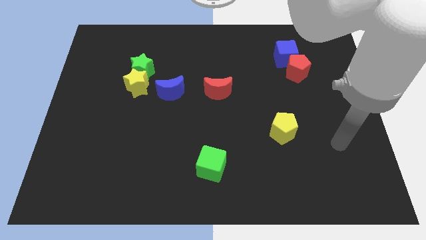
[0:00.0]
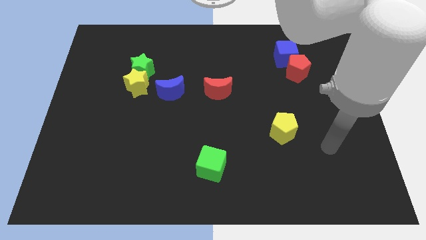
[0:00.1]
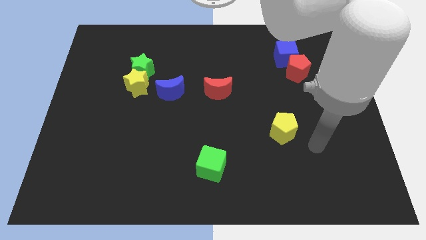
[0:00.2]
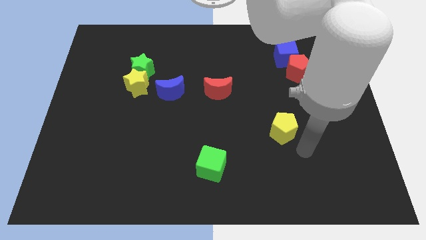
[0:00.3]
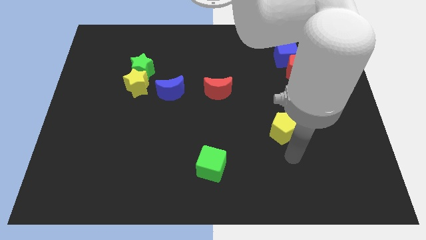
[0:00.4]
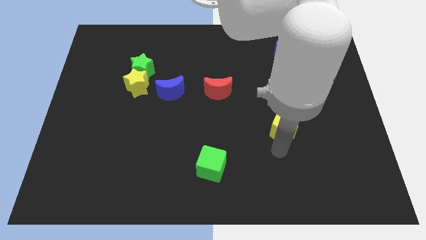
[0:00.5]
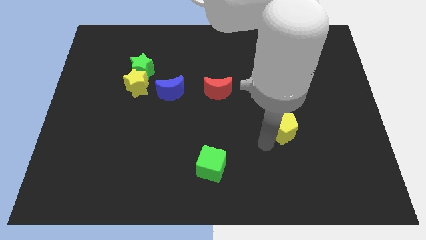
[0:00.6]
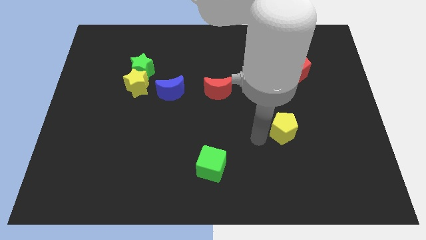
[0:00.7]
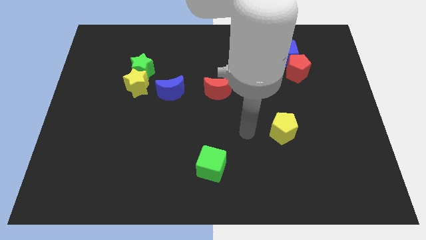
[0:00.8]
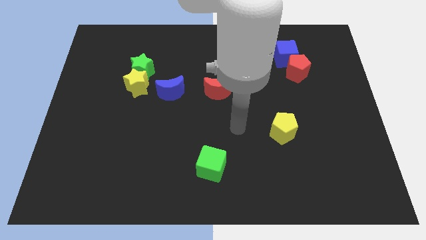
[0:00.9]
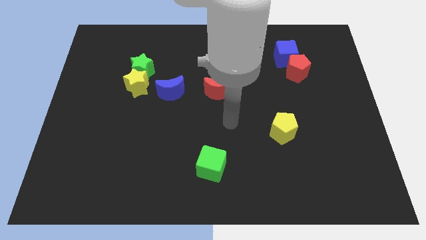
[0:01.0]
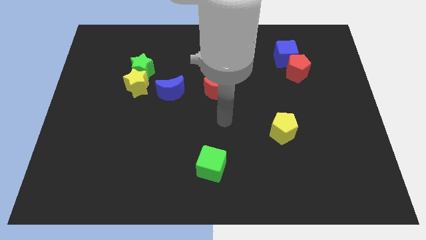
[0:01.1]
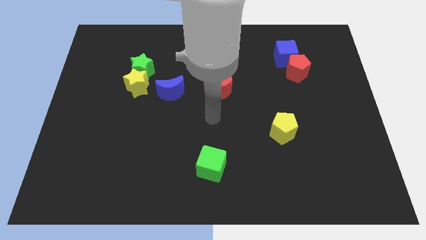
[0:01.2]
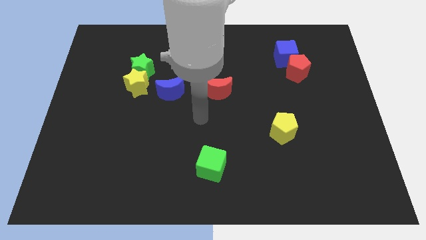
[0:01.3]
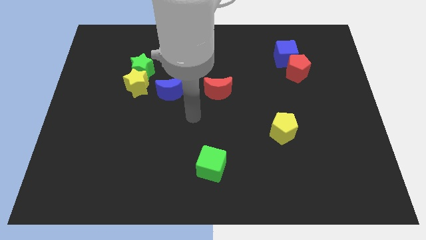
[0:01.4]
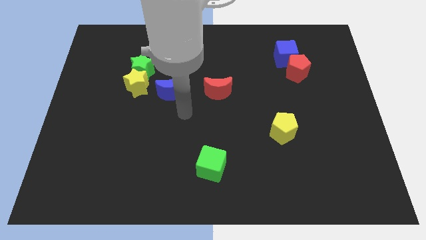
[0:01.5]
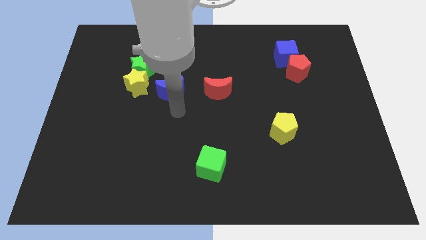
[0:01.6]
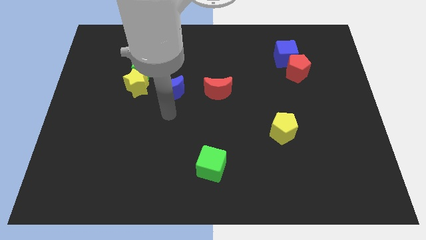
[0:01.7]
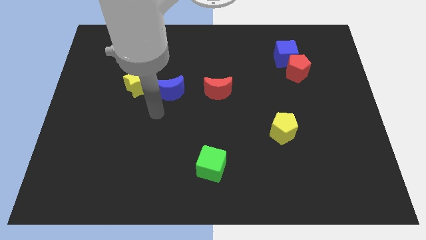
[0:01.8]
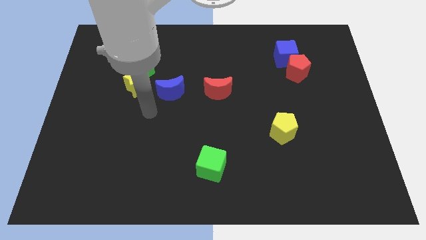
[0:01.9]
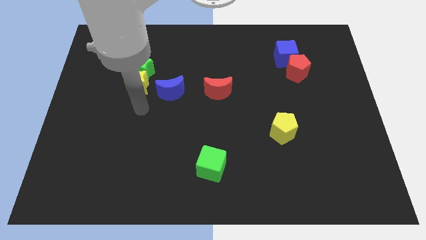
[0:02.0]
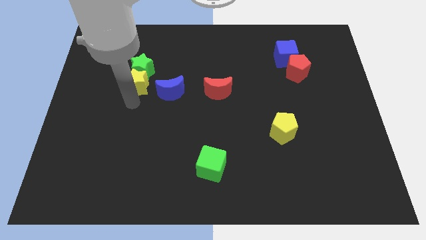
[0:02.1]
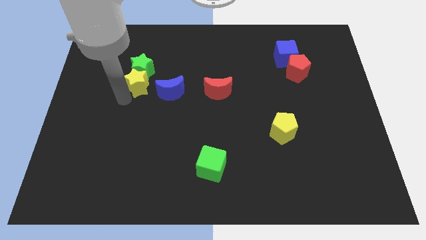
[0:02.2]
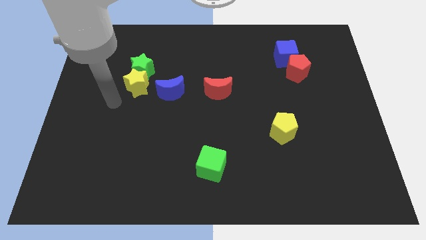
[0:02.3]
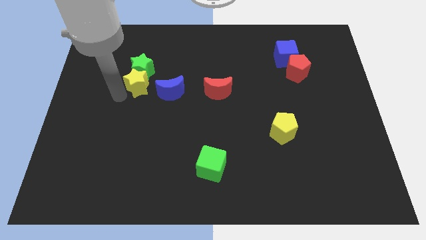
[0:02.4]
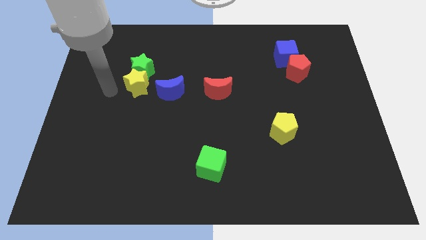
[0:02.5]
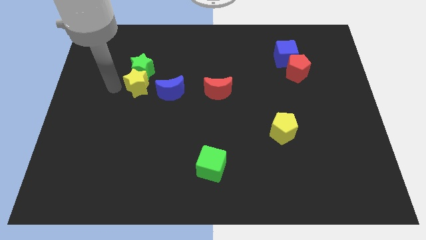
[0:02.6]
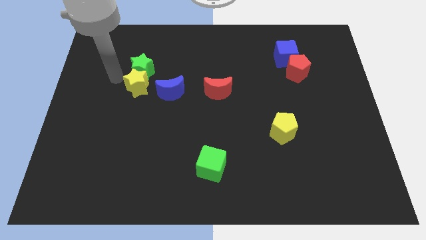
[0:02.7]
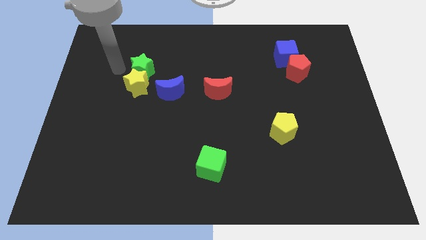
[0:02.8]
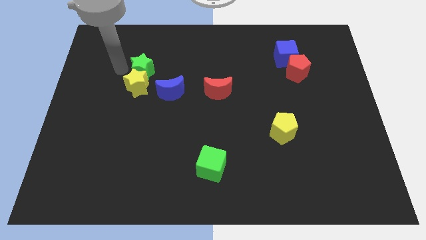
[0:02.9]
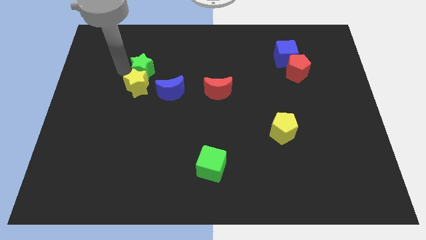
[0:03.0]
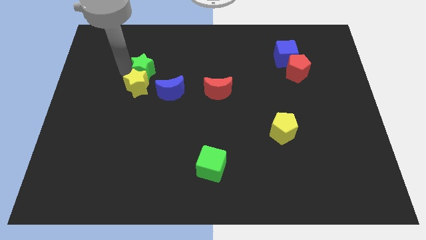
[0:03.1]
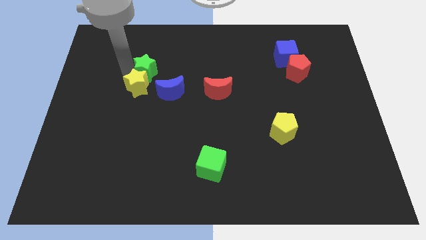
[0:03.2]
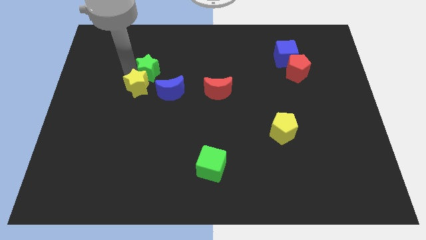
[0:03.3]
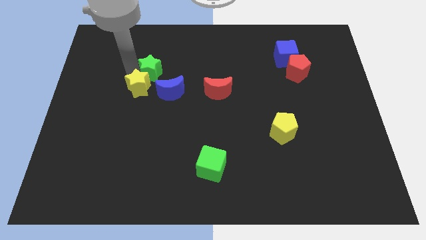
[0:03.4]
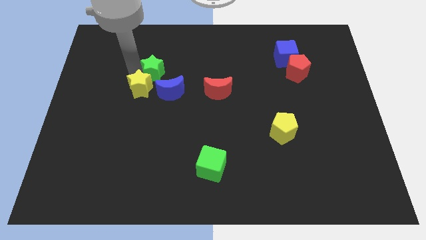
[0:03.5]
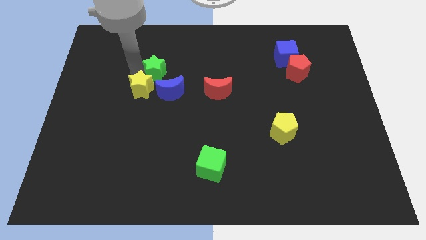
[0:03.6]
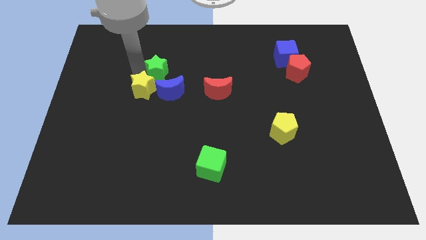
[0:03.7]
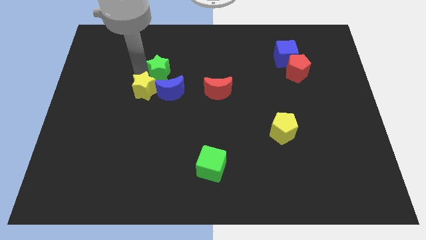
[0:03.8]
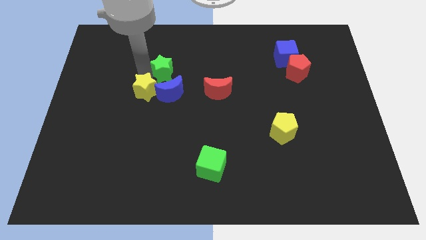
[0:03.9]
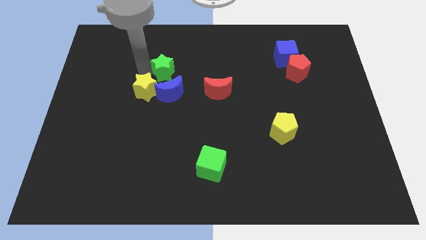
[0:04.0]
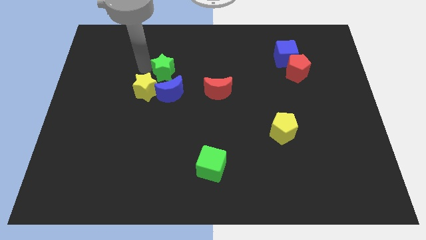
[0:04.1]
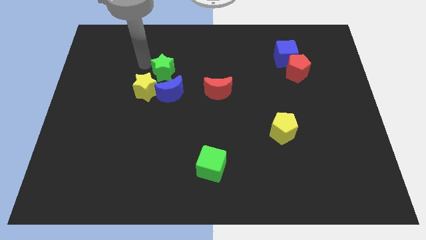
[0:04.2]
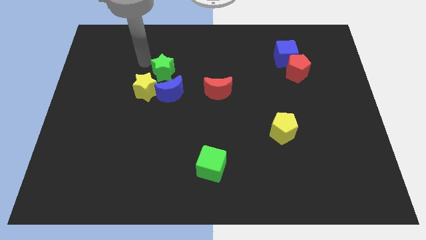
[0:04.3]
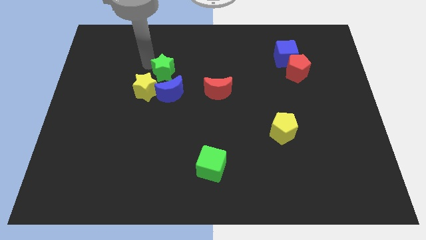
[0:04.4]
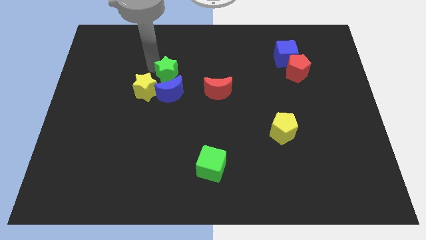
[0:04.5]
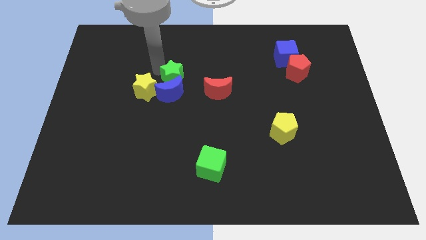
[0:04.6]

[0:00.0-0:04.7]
slightly push the green star diagonally downwards and right

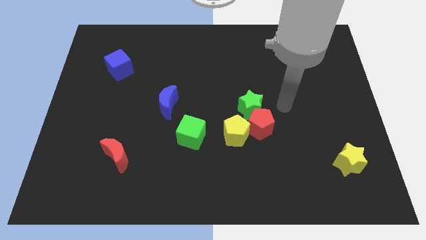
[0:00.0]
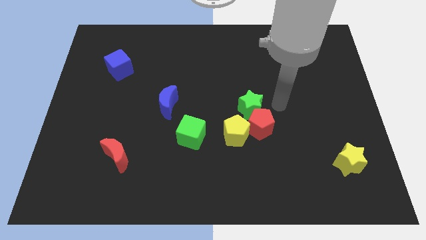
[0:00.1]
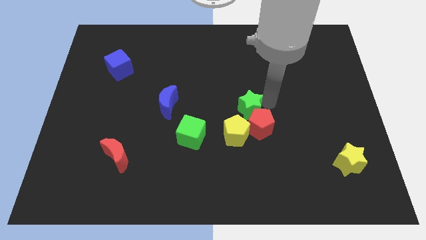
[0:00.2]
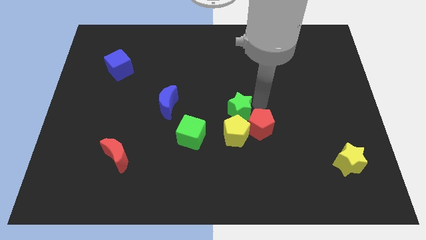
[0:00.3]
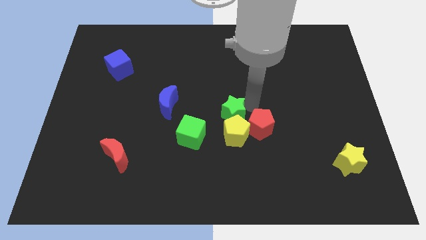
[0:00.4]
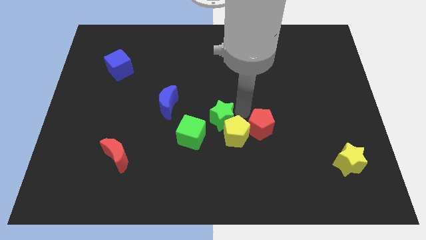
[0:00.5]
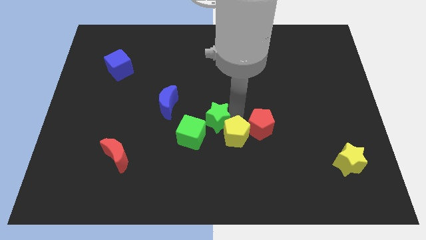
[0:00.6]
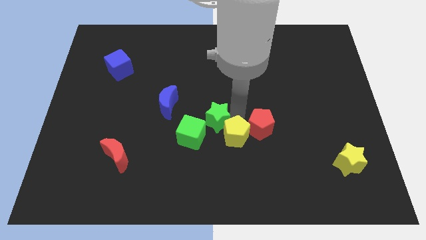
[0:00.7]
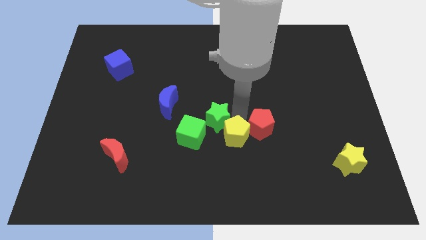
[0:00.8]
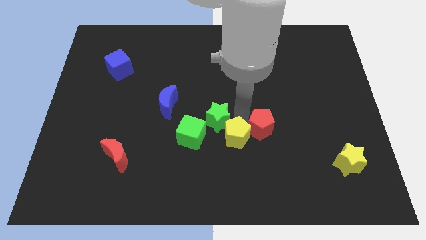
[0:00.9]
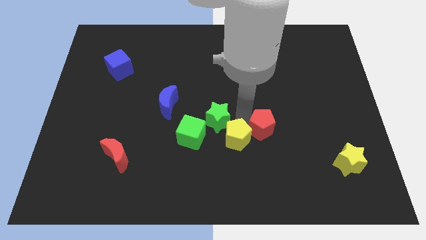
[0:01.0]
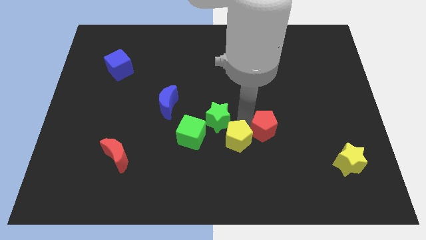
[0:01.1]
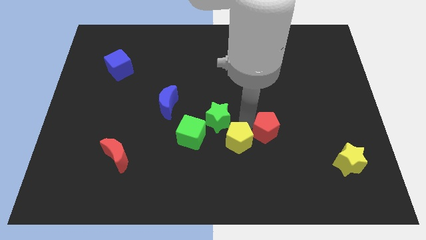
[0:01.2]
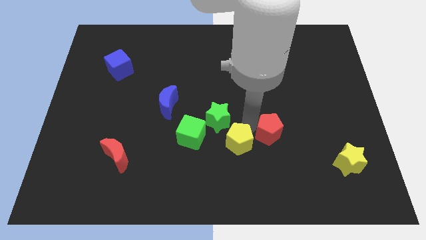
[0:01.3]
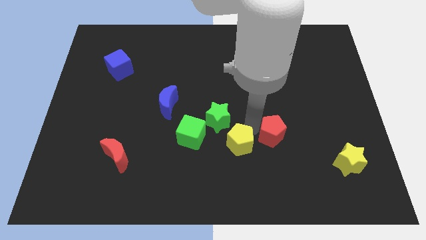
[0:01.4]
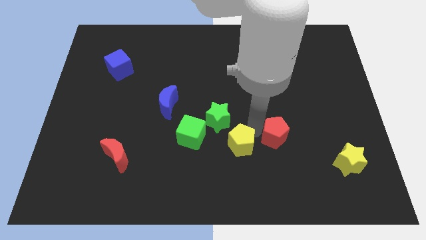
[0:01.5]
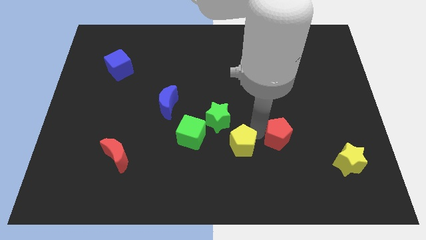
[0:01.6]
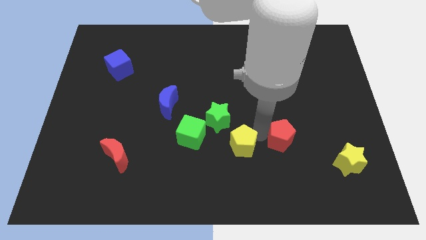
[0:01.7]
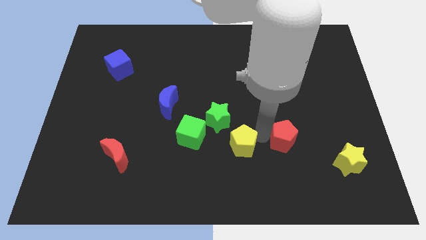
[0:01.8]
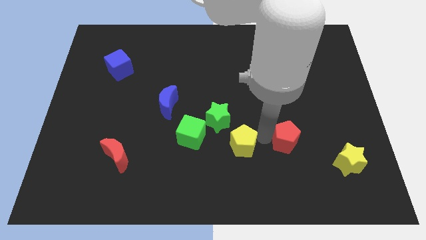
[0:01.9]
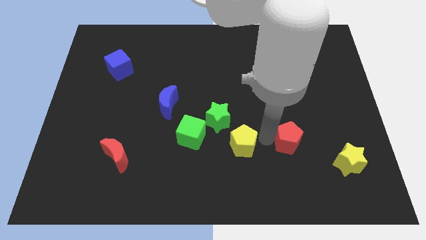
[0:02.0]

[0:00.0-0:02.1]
slightly push the red pentagon down and then right

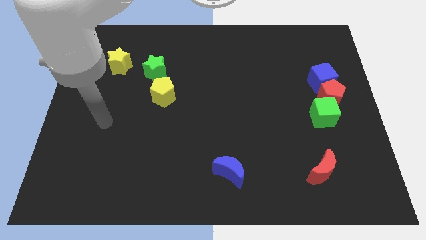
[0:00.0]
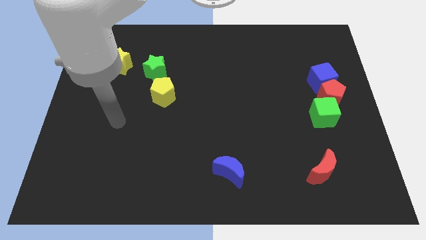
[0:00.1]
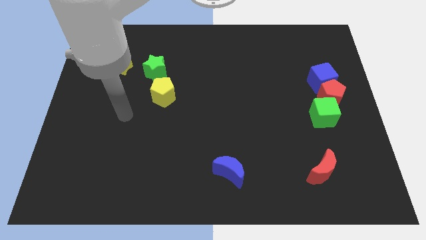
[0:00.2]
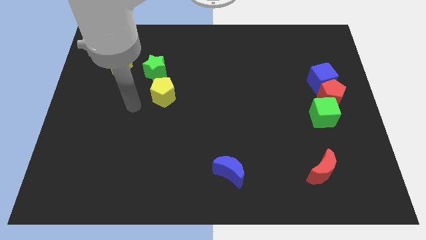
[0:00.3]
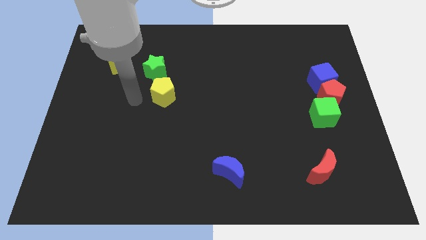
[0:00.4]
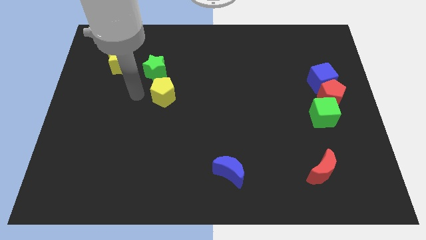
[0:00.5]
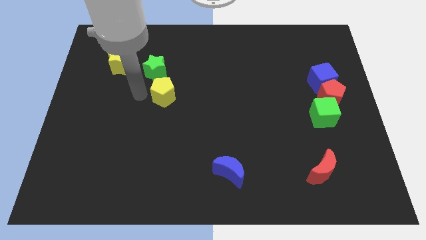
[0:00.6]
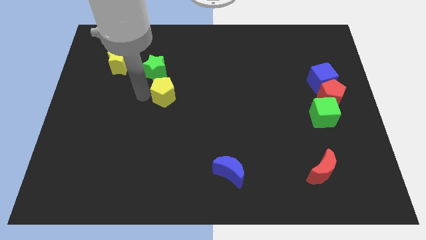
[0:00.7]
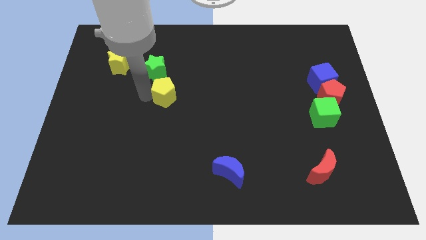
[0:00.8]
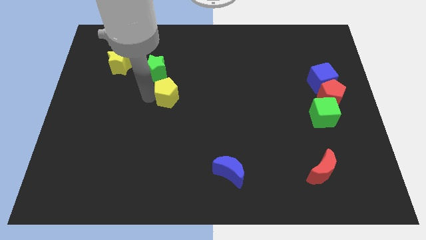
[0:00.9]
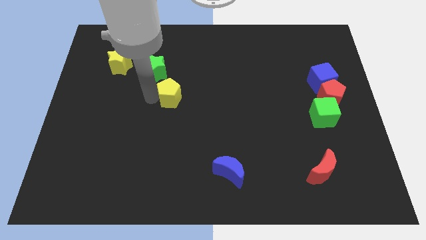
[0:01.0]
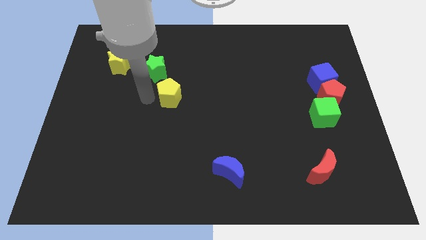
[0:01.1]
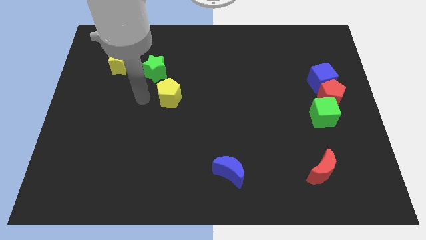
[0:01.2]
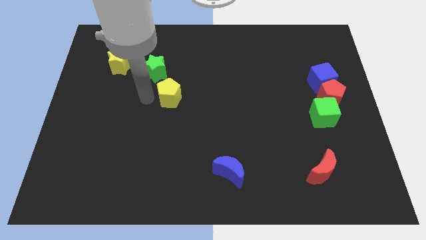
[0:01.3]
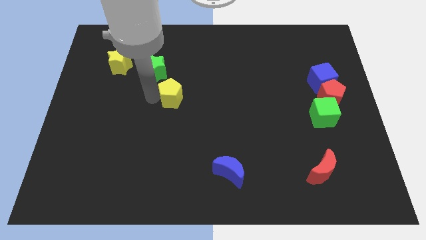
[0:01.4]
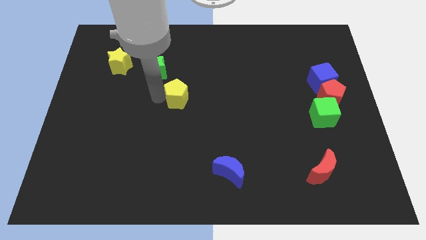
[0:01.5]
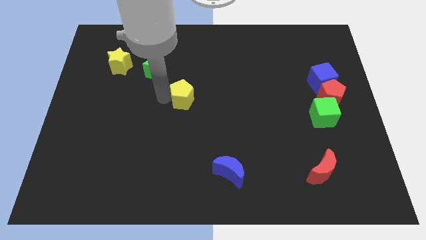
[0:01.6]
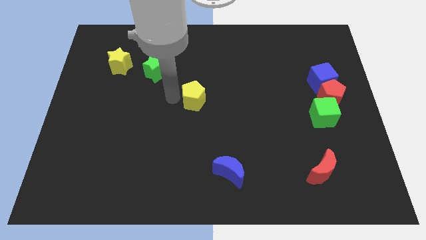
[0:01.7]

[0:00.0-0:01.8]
slightly move the yellow pentagon right
